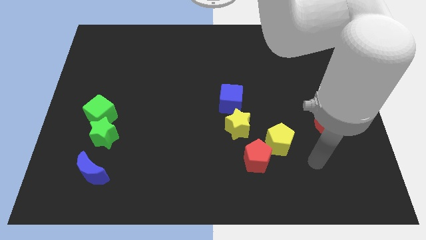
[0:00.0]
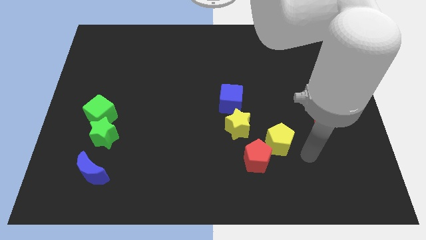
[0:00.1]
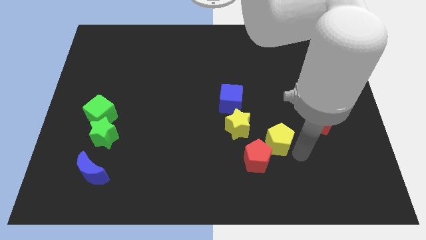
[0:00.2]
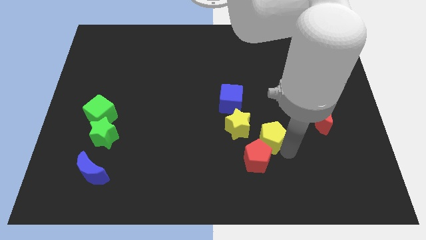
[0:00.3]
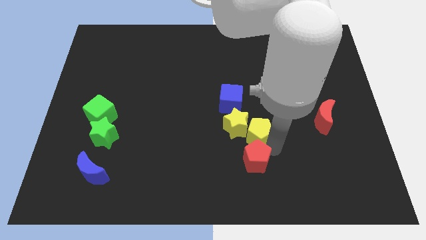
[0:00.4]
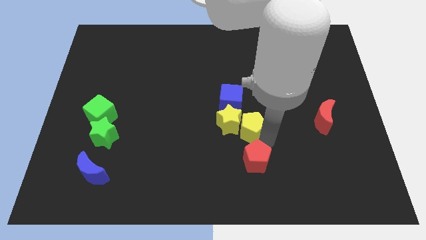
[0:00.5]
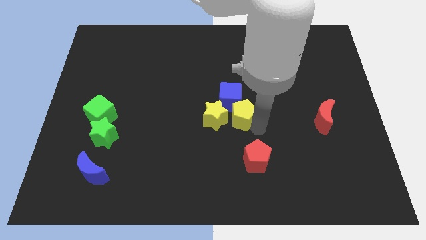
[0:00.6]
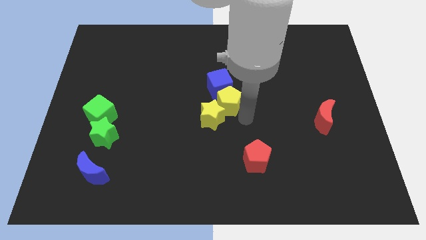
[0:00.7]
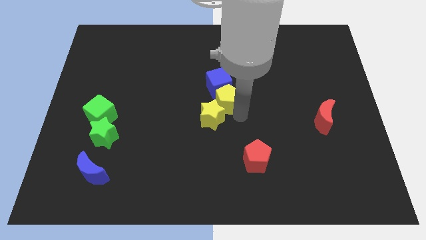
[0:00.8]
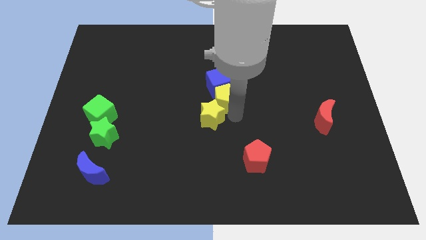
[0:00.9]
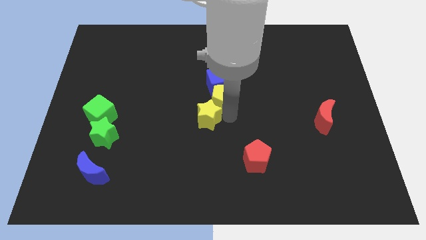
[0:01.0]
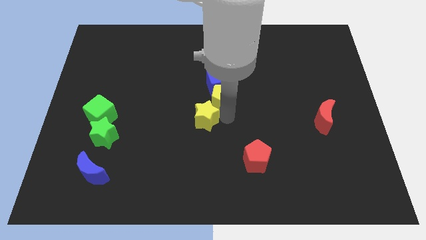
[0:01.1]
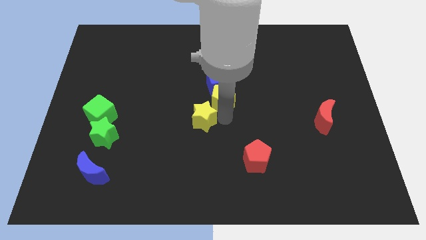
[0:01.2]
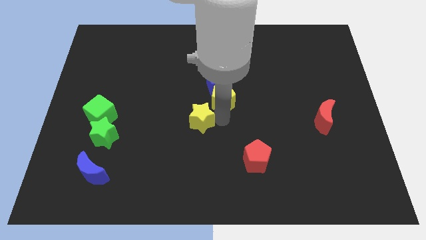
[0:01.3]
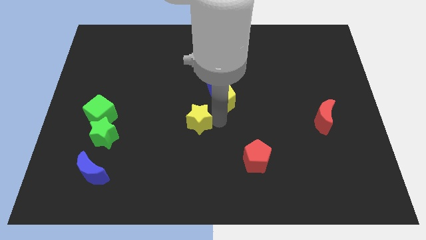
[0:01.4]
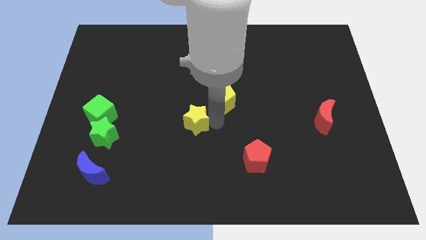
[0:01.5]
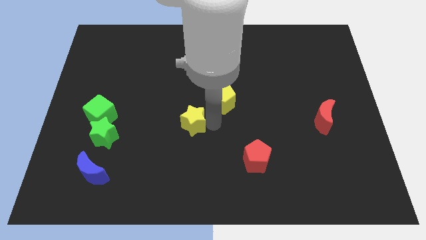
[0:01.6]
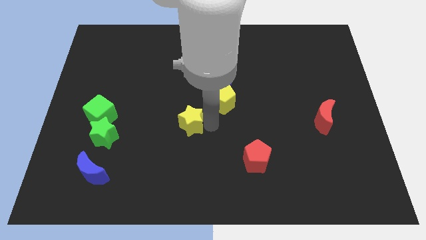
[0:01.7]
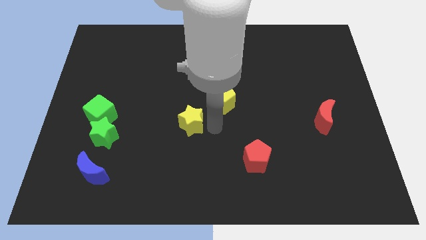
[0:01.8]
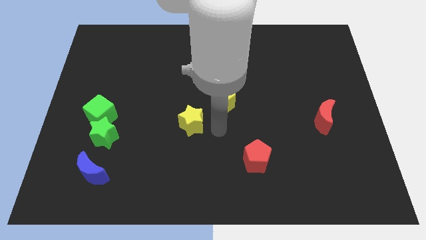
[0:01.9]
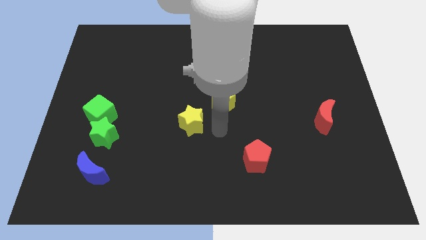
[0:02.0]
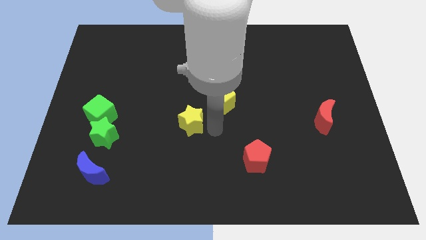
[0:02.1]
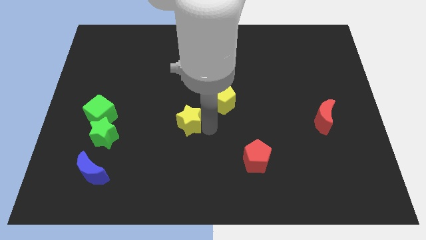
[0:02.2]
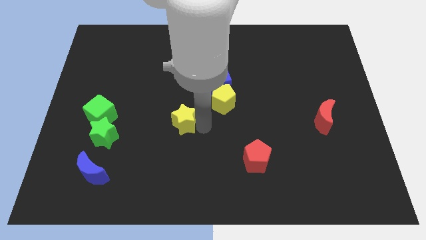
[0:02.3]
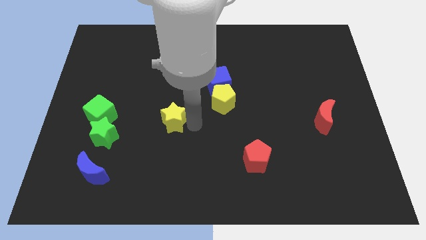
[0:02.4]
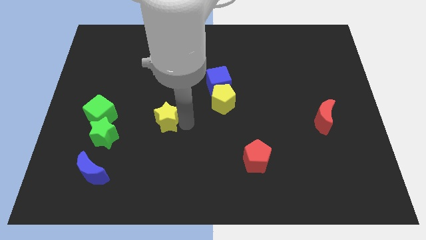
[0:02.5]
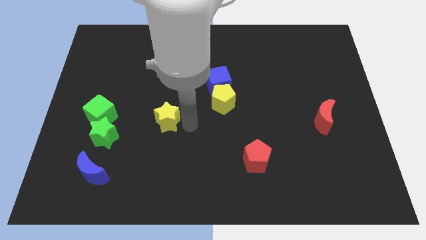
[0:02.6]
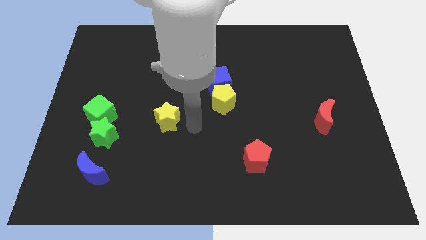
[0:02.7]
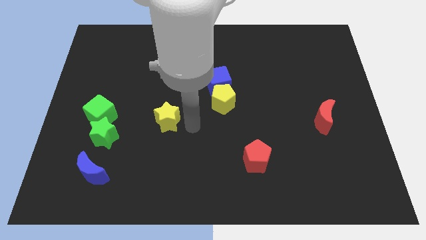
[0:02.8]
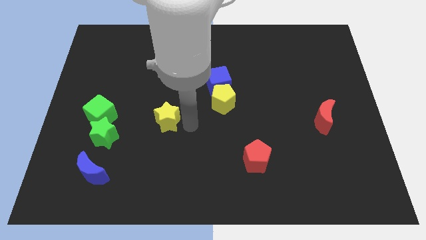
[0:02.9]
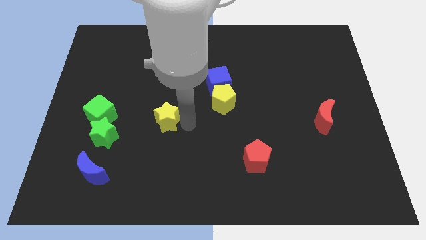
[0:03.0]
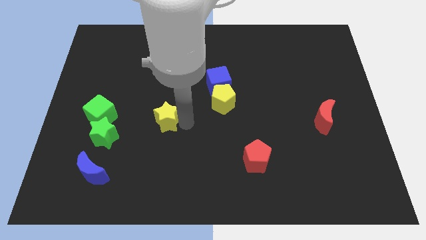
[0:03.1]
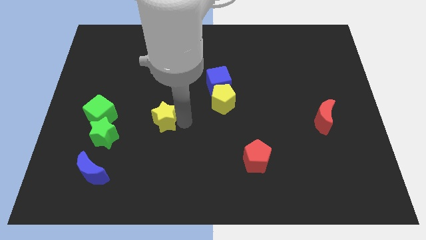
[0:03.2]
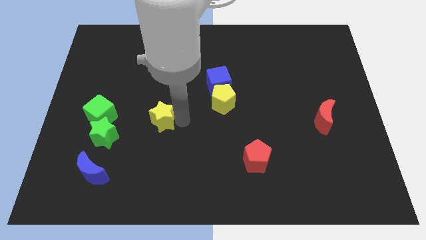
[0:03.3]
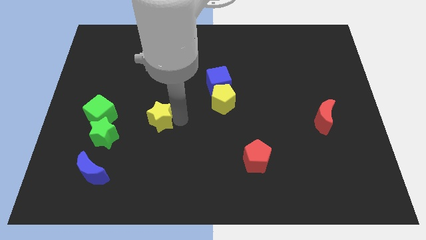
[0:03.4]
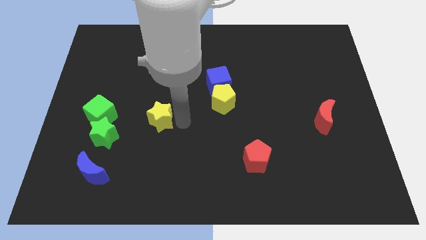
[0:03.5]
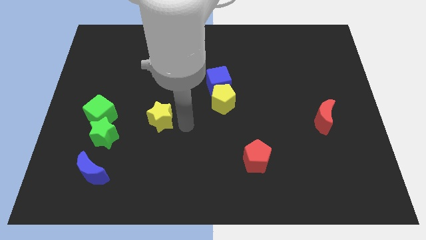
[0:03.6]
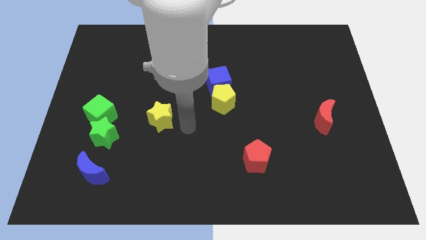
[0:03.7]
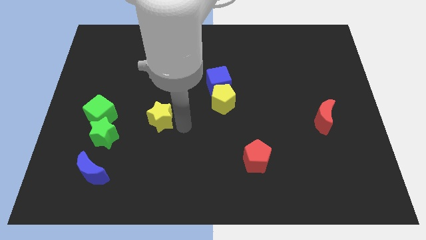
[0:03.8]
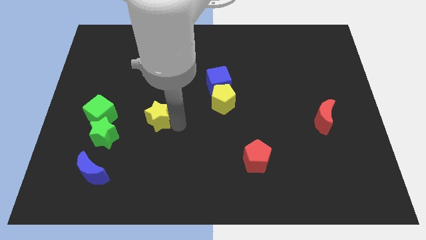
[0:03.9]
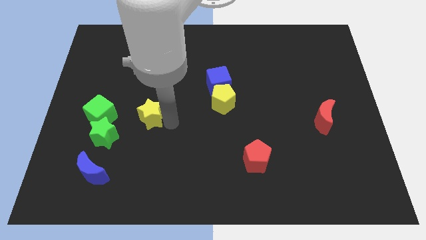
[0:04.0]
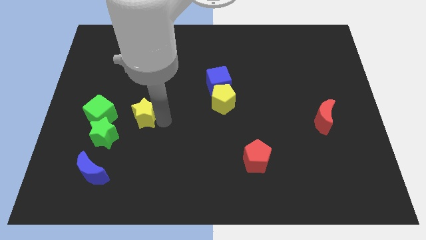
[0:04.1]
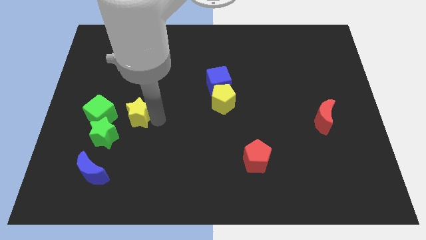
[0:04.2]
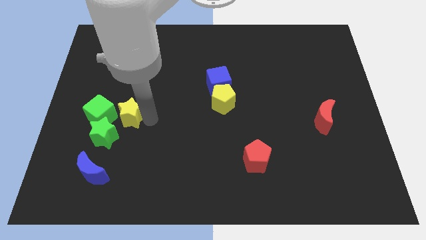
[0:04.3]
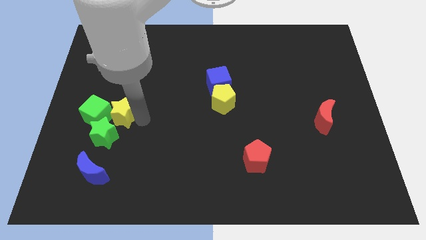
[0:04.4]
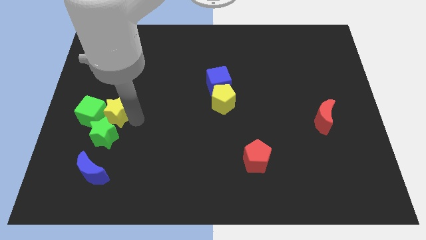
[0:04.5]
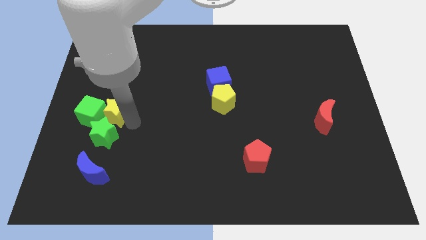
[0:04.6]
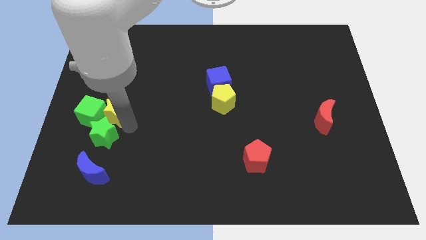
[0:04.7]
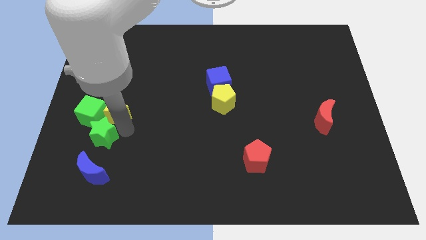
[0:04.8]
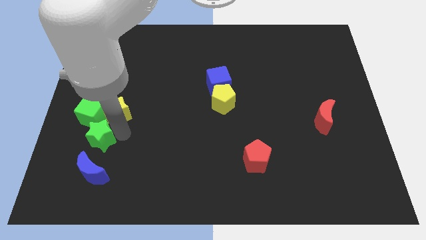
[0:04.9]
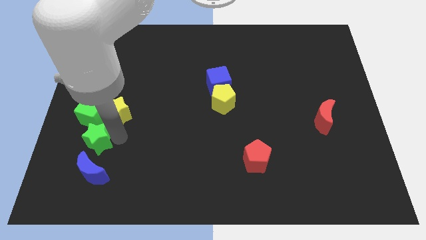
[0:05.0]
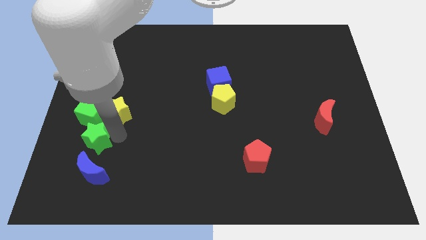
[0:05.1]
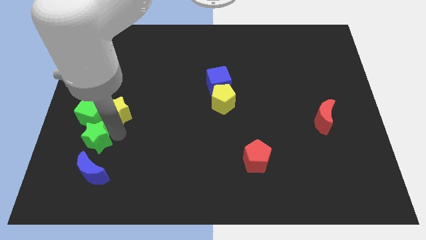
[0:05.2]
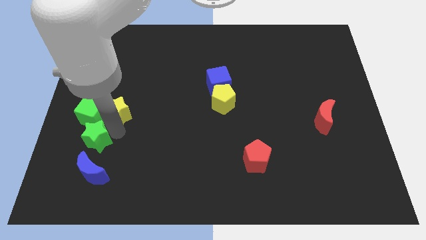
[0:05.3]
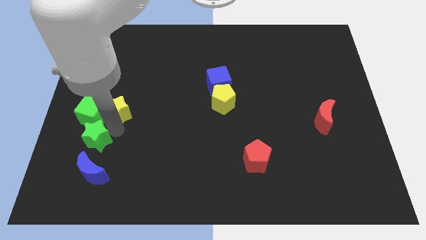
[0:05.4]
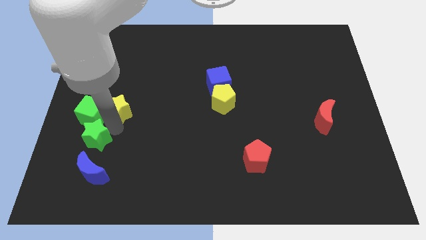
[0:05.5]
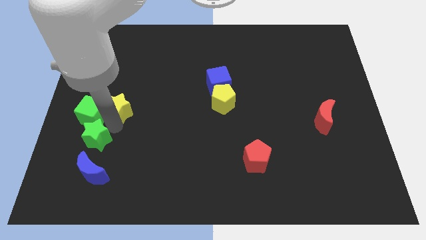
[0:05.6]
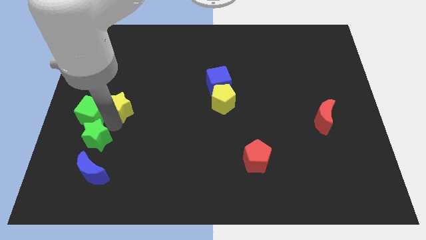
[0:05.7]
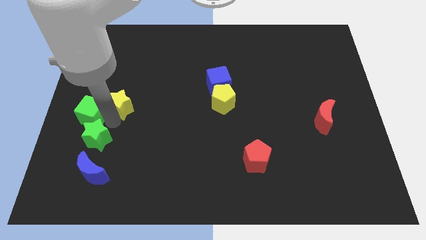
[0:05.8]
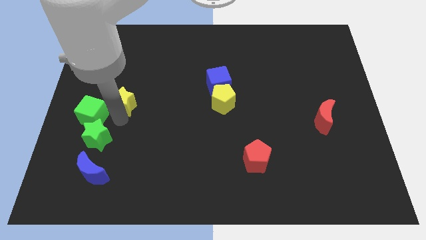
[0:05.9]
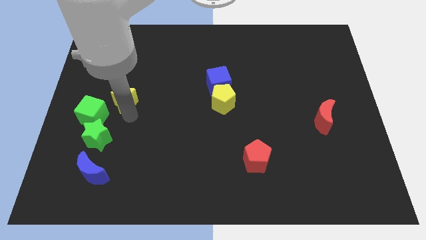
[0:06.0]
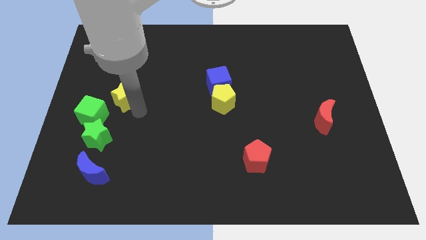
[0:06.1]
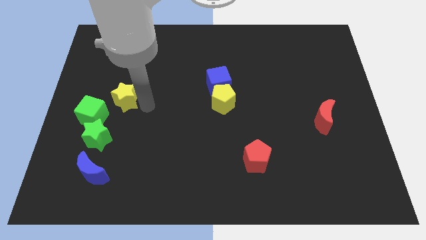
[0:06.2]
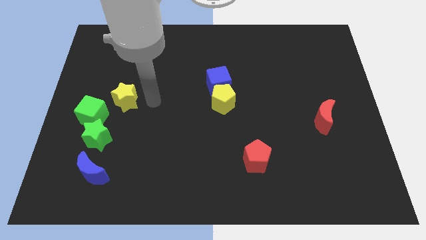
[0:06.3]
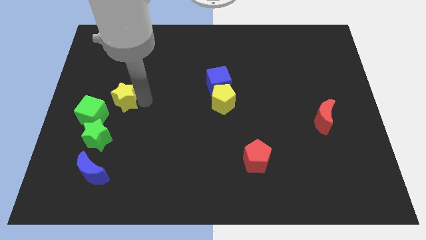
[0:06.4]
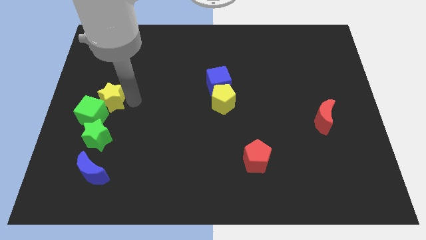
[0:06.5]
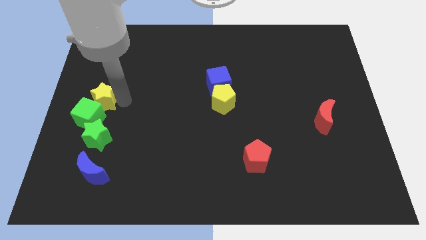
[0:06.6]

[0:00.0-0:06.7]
slide the yellow star to the center left

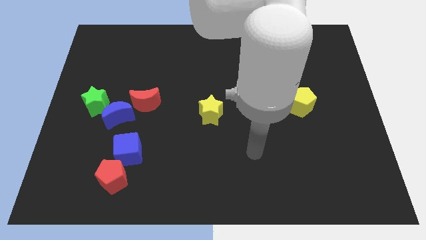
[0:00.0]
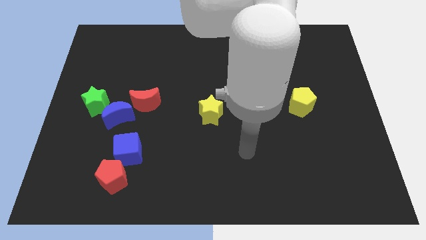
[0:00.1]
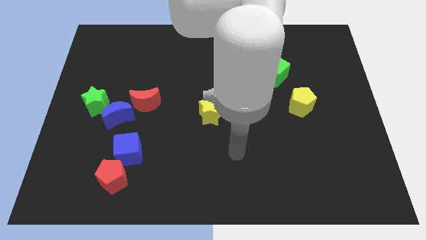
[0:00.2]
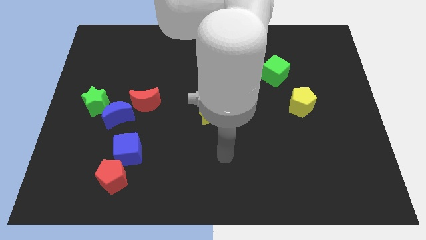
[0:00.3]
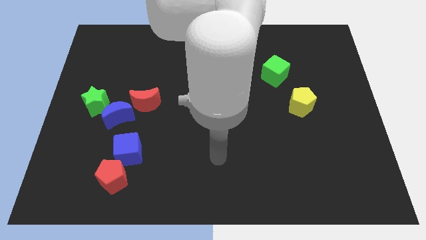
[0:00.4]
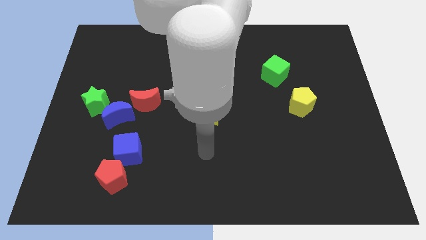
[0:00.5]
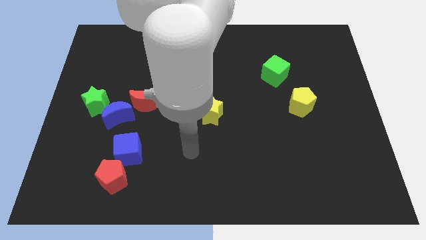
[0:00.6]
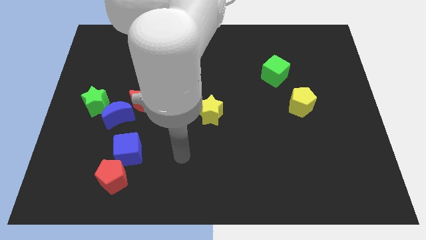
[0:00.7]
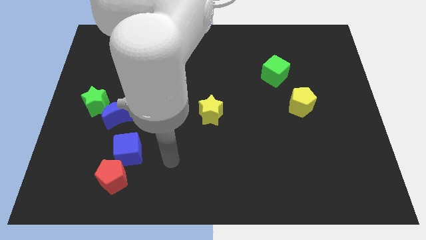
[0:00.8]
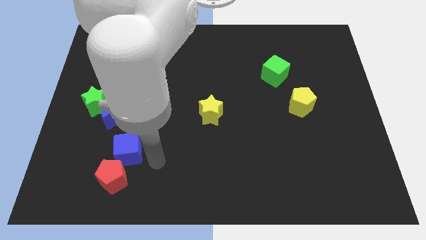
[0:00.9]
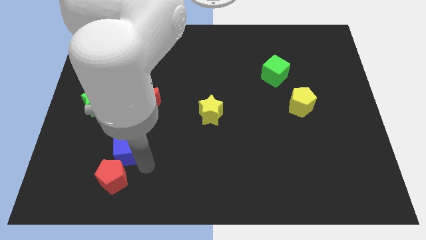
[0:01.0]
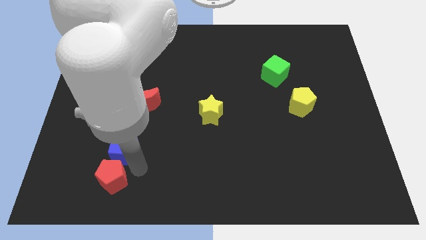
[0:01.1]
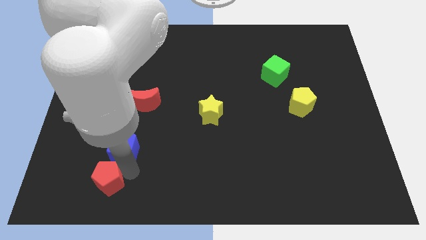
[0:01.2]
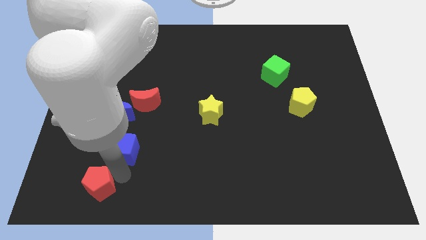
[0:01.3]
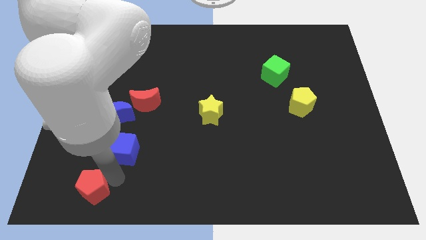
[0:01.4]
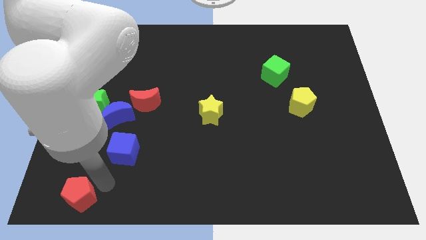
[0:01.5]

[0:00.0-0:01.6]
slide the red pentagon to the bottom left corner
